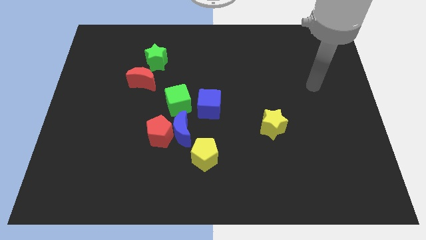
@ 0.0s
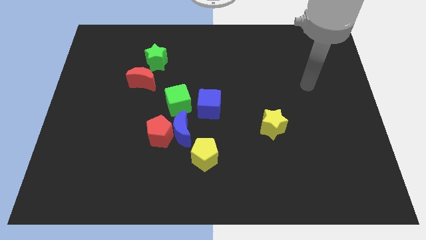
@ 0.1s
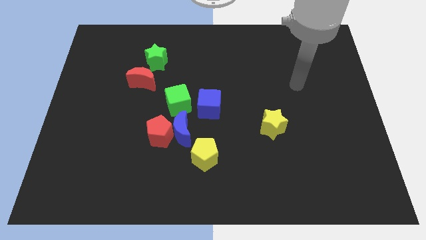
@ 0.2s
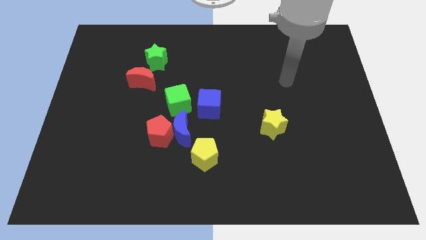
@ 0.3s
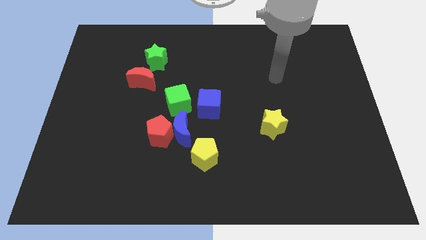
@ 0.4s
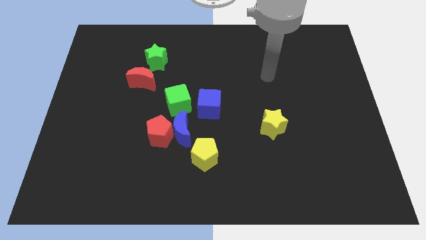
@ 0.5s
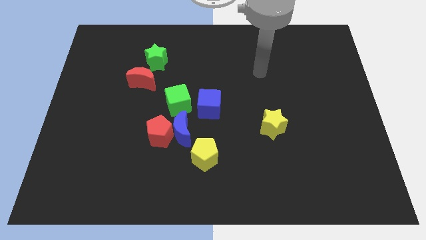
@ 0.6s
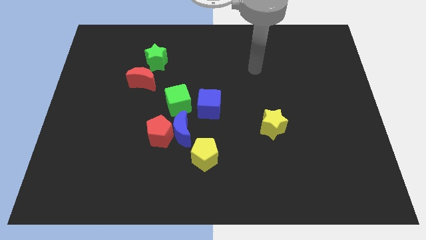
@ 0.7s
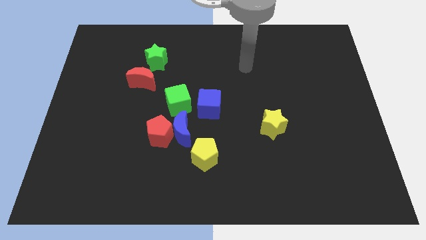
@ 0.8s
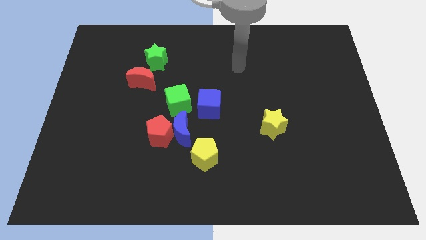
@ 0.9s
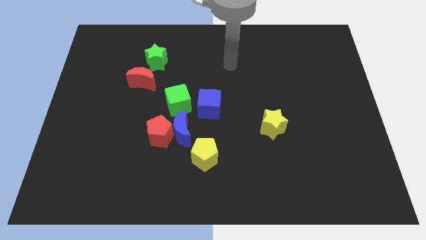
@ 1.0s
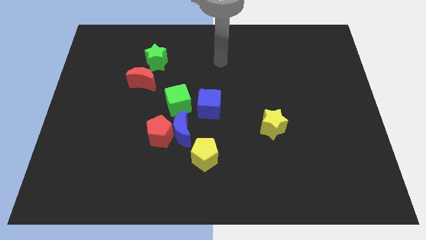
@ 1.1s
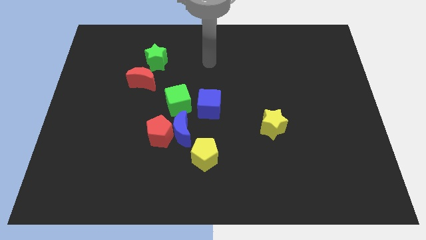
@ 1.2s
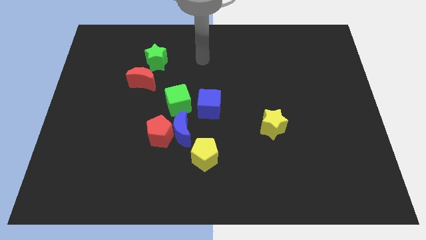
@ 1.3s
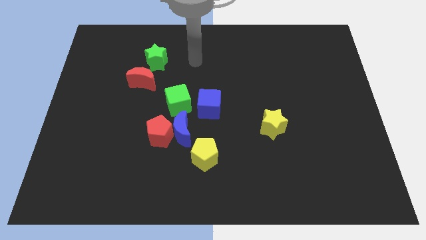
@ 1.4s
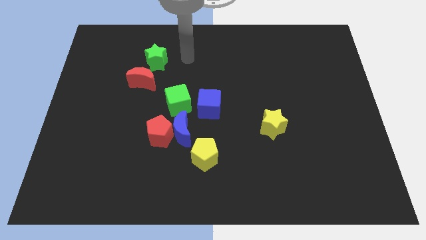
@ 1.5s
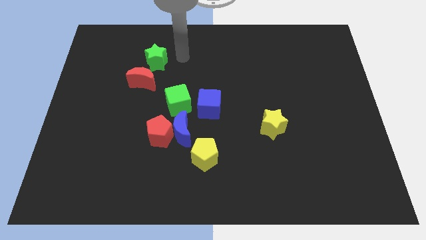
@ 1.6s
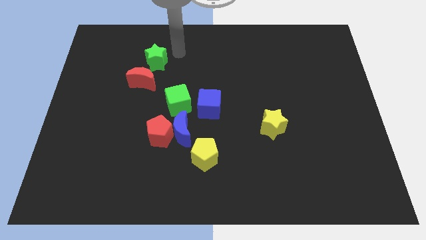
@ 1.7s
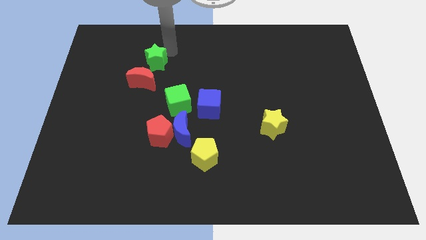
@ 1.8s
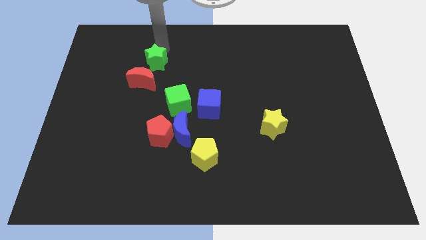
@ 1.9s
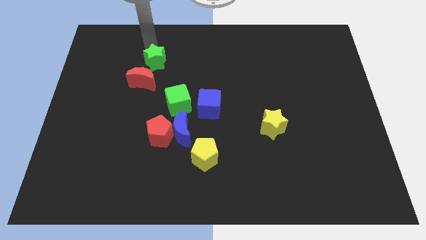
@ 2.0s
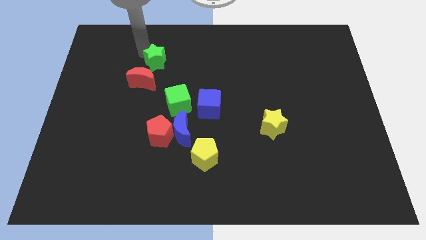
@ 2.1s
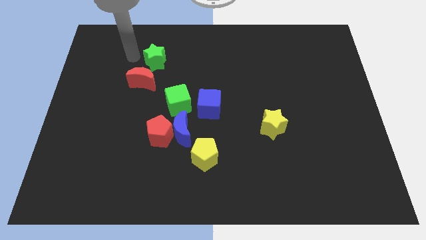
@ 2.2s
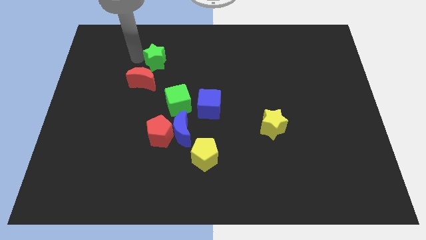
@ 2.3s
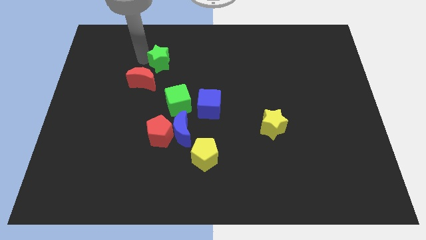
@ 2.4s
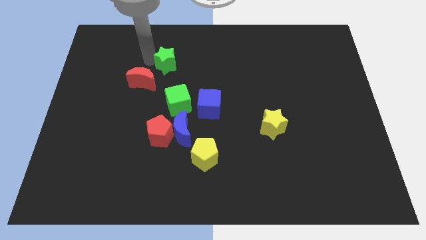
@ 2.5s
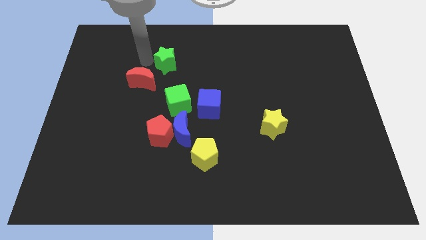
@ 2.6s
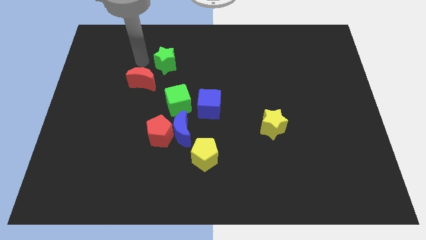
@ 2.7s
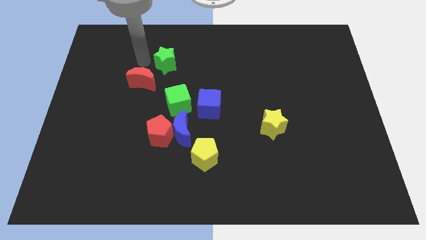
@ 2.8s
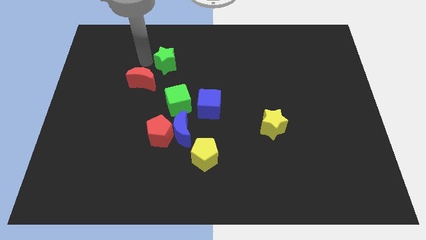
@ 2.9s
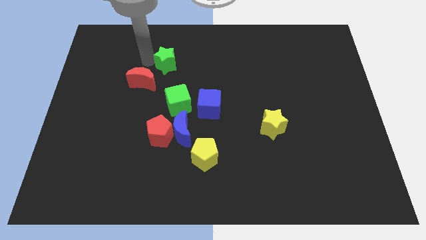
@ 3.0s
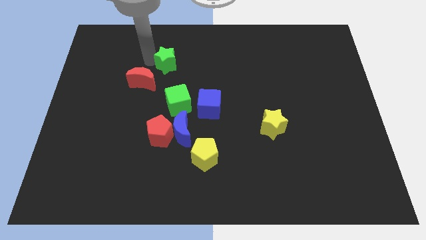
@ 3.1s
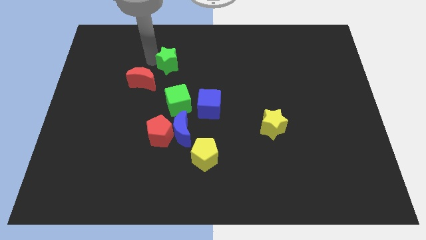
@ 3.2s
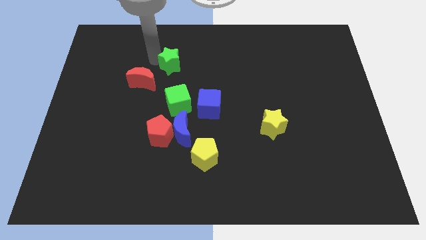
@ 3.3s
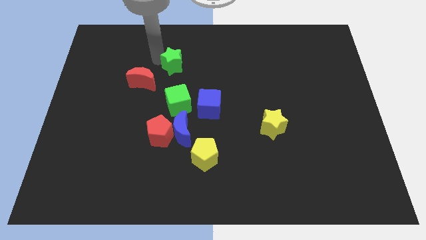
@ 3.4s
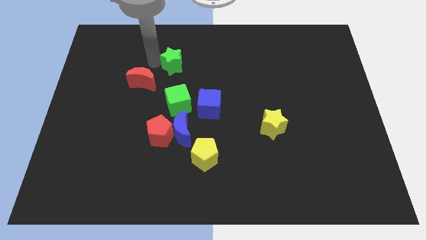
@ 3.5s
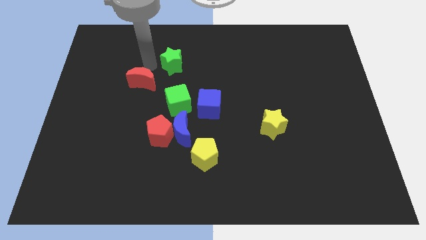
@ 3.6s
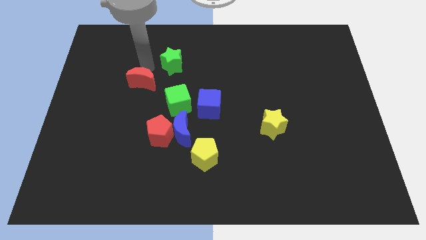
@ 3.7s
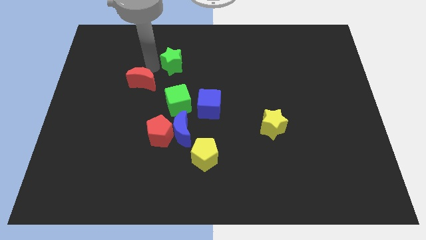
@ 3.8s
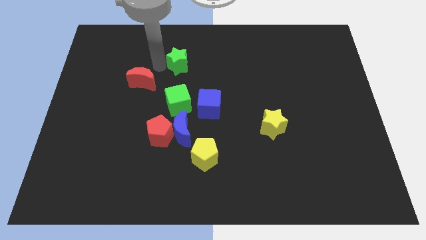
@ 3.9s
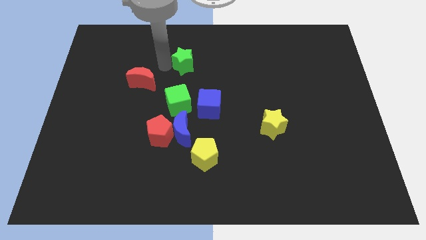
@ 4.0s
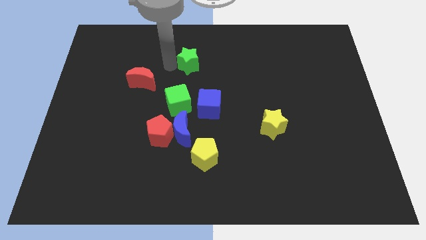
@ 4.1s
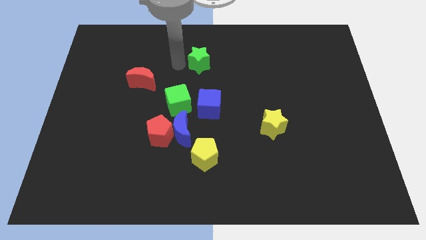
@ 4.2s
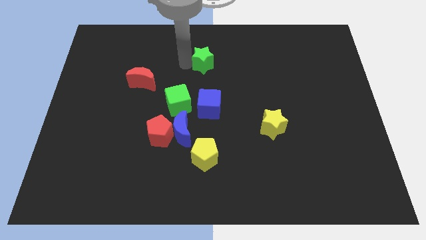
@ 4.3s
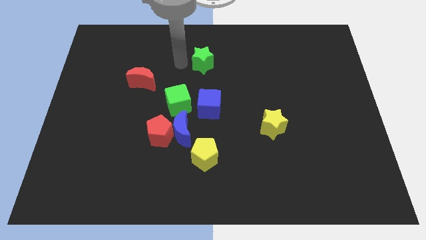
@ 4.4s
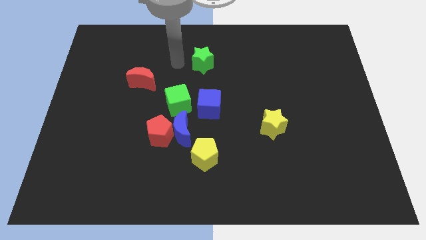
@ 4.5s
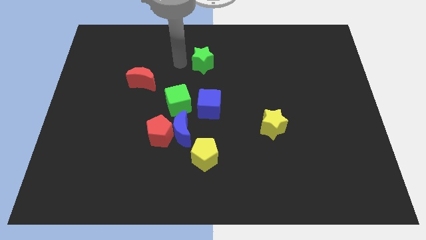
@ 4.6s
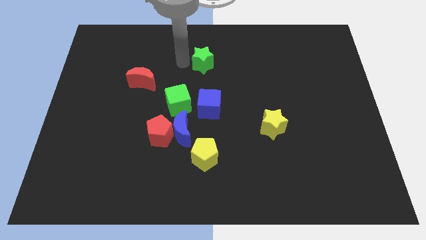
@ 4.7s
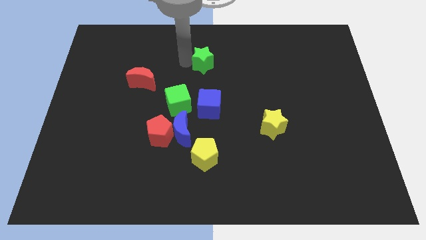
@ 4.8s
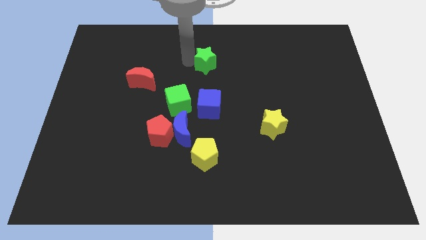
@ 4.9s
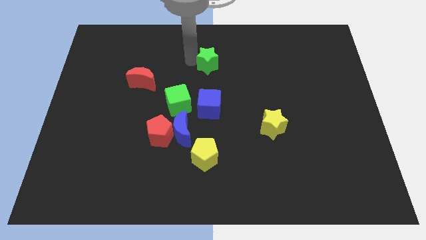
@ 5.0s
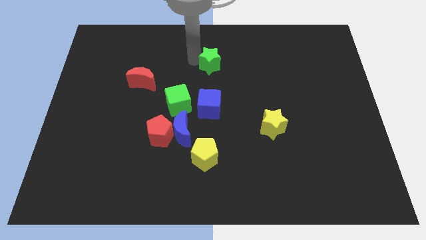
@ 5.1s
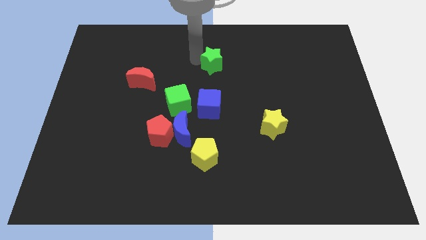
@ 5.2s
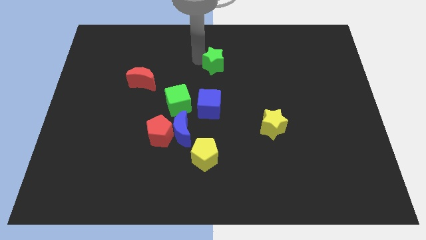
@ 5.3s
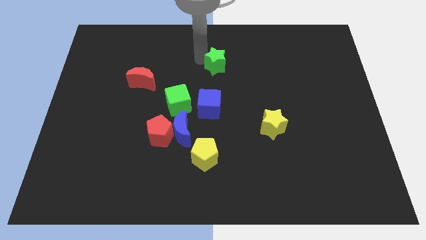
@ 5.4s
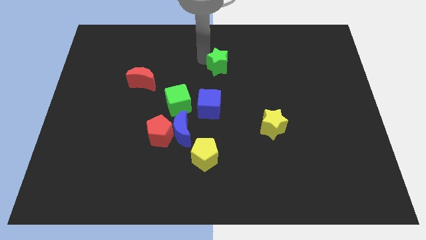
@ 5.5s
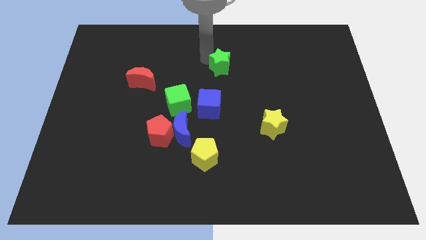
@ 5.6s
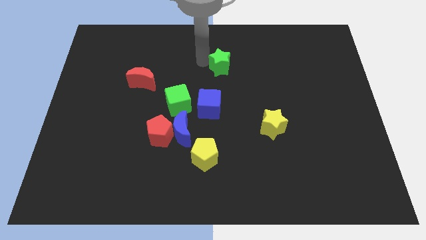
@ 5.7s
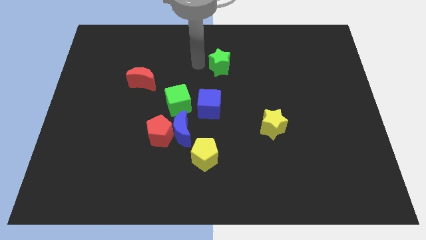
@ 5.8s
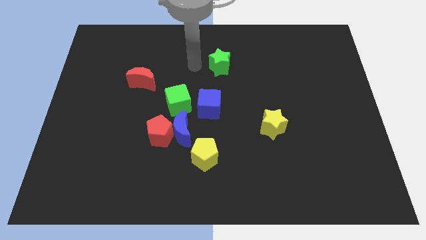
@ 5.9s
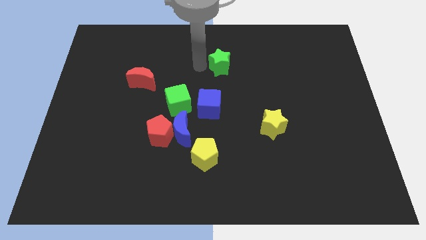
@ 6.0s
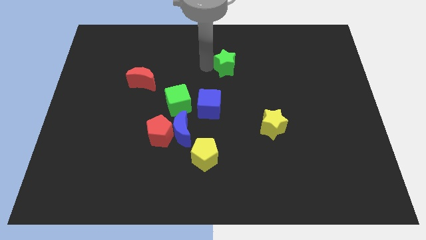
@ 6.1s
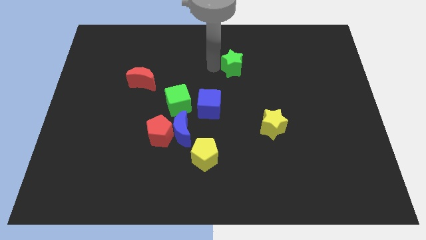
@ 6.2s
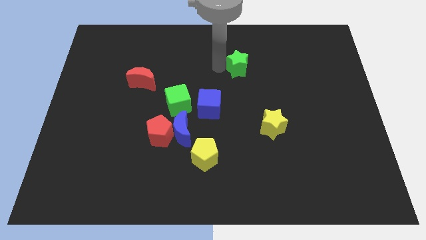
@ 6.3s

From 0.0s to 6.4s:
slide the green star right

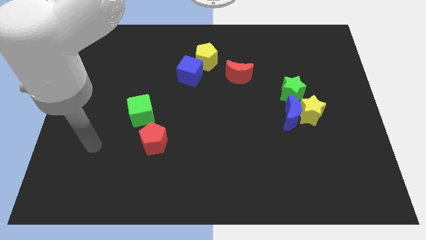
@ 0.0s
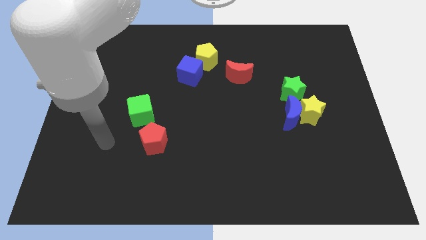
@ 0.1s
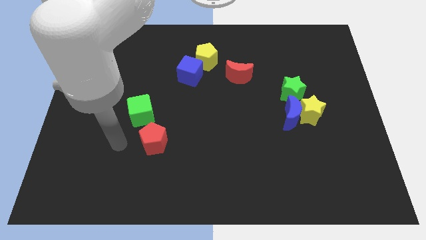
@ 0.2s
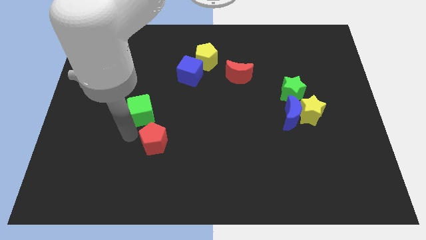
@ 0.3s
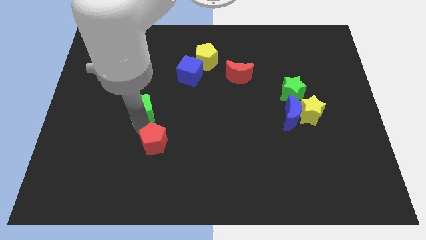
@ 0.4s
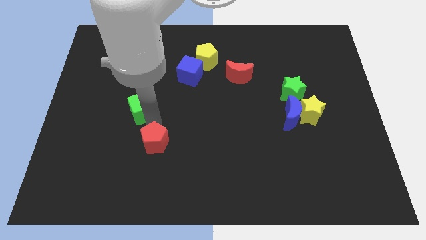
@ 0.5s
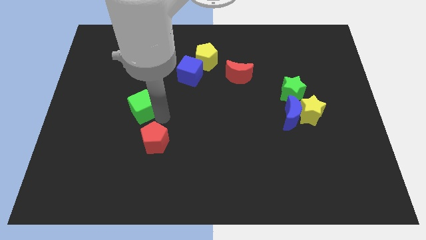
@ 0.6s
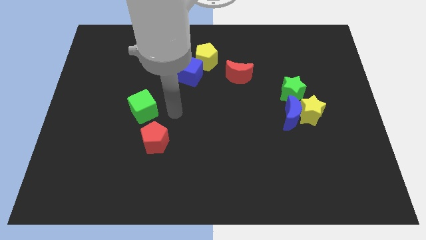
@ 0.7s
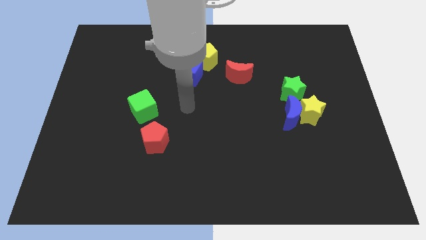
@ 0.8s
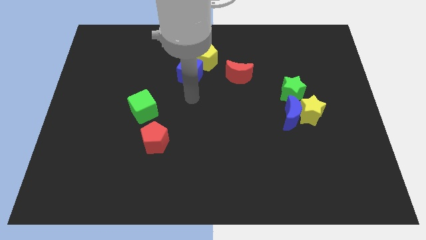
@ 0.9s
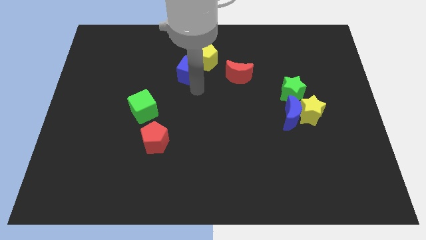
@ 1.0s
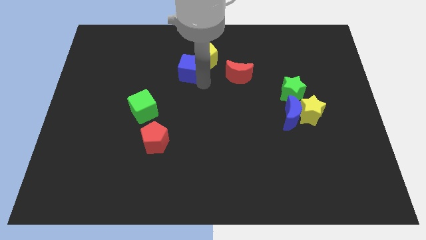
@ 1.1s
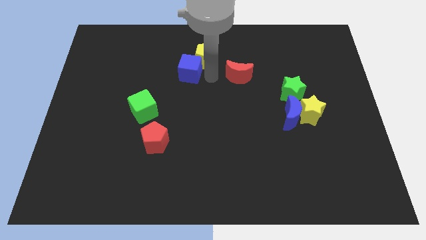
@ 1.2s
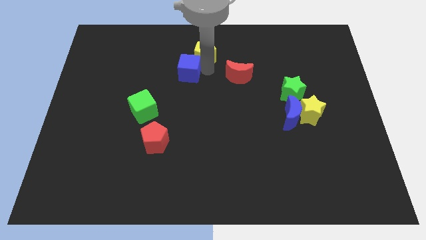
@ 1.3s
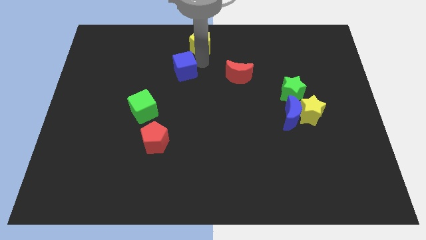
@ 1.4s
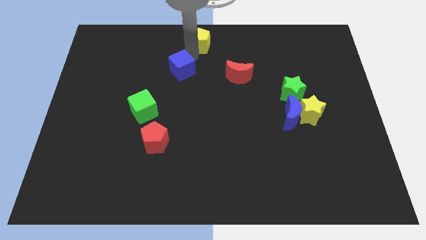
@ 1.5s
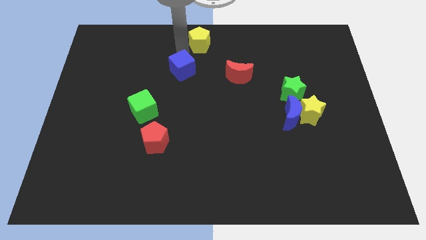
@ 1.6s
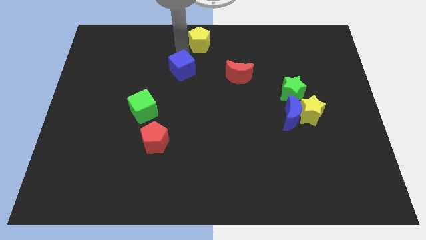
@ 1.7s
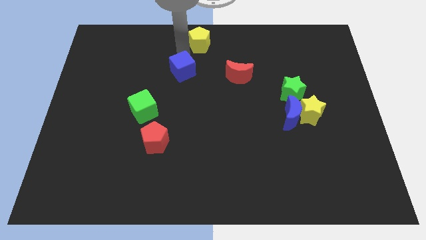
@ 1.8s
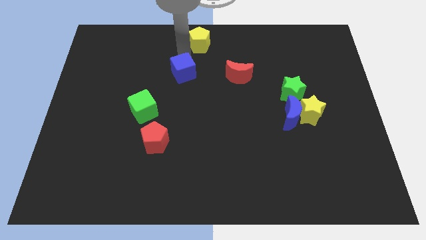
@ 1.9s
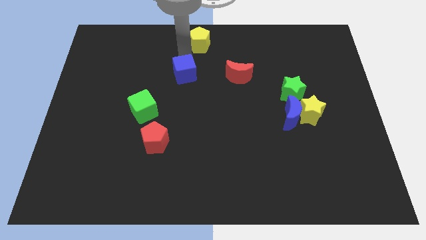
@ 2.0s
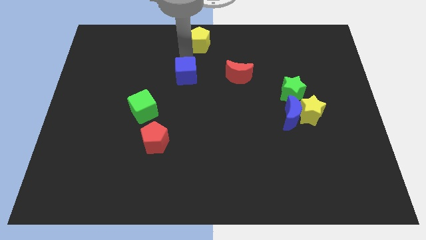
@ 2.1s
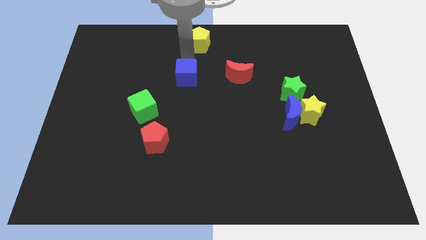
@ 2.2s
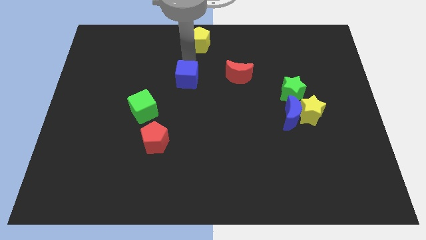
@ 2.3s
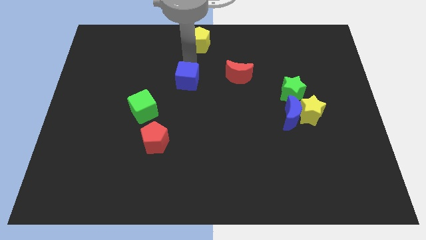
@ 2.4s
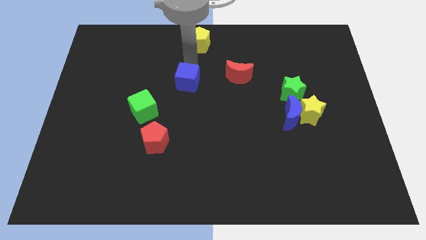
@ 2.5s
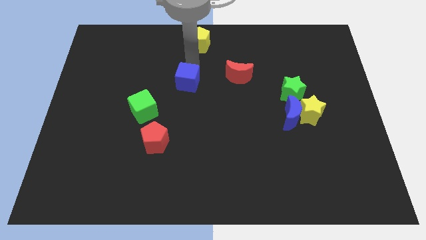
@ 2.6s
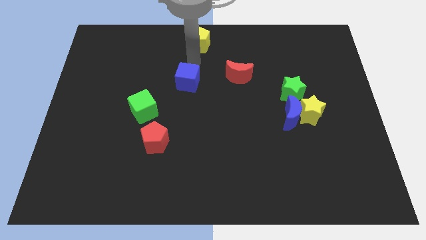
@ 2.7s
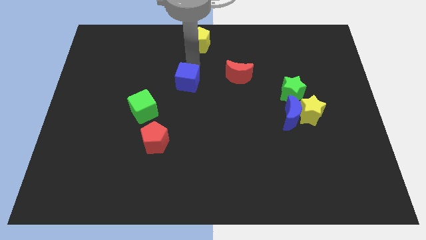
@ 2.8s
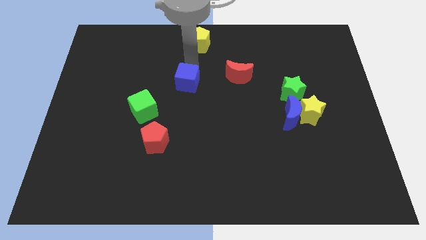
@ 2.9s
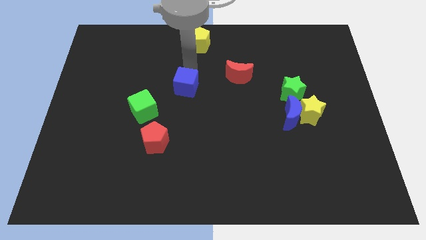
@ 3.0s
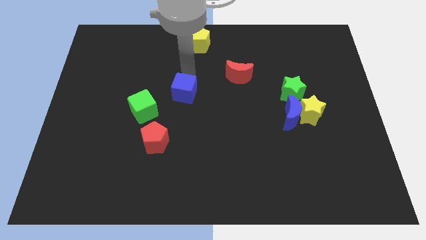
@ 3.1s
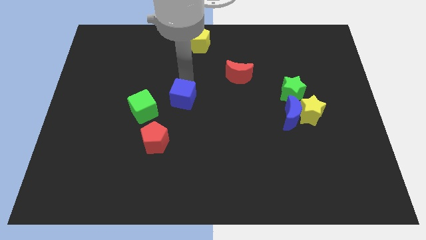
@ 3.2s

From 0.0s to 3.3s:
slightly move the blue cube down
